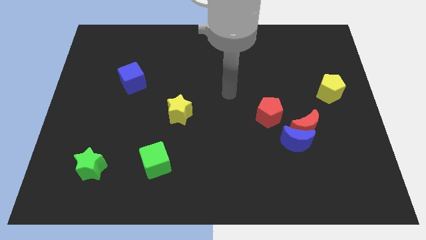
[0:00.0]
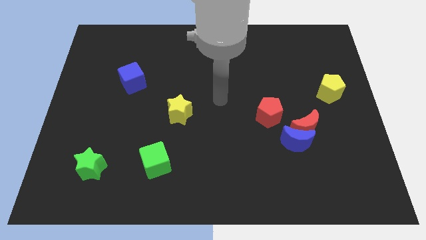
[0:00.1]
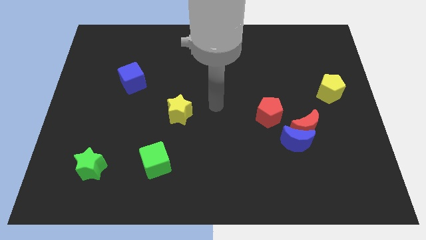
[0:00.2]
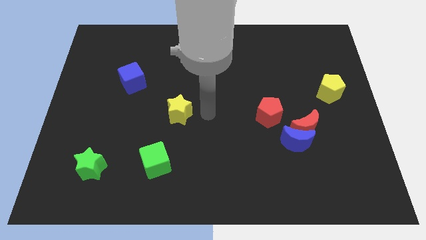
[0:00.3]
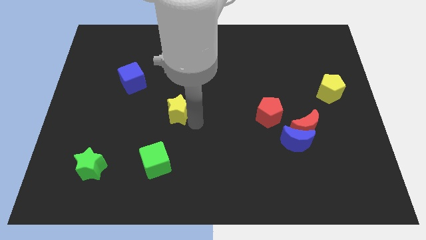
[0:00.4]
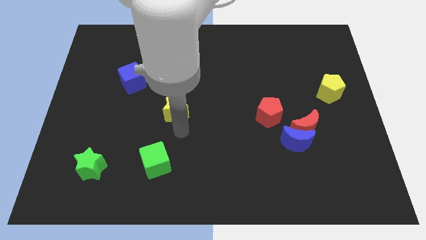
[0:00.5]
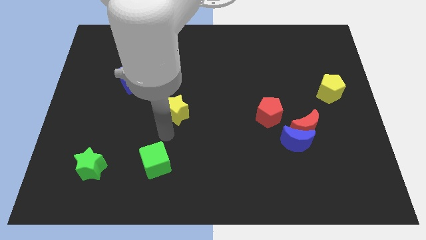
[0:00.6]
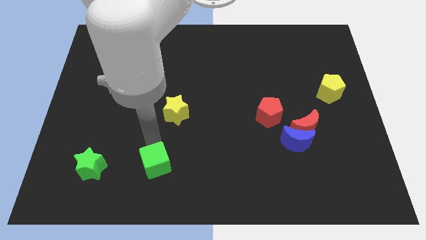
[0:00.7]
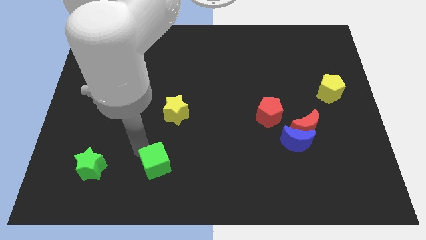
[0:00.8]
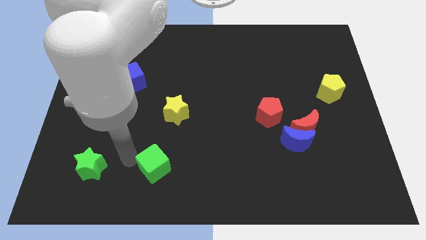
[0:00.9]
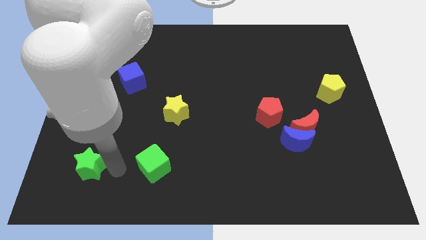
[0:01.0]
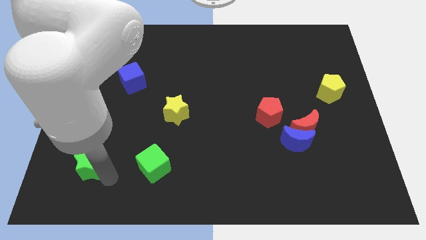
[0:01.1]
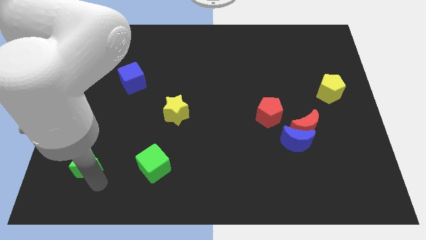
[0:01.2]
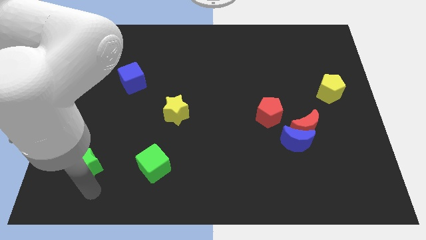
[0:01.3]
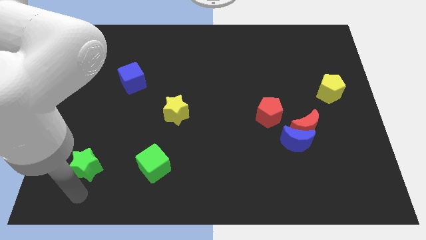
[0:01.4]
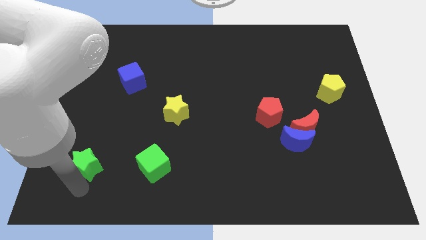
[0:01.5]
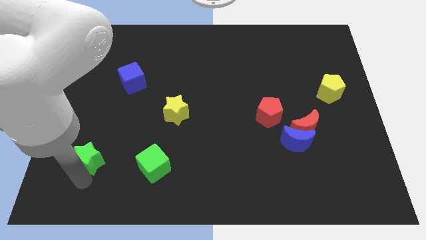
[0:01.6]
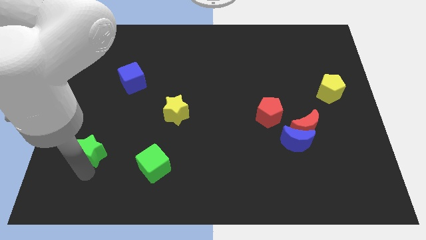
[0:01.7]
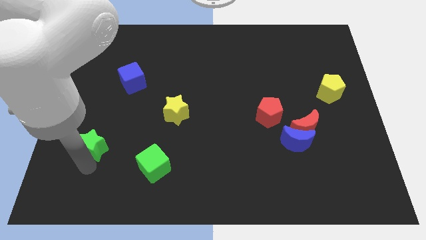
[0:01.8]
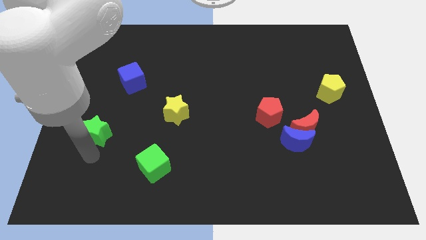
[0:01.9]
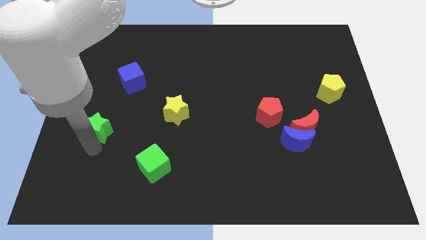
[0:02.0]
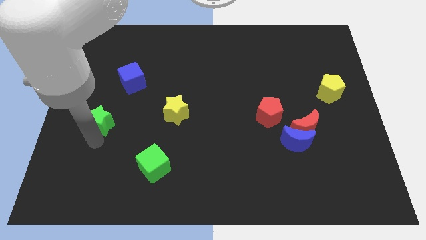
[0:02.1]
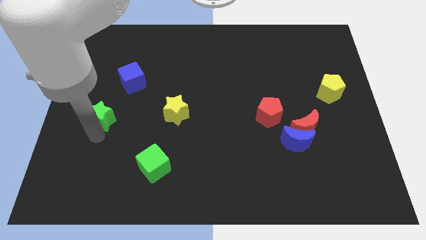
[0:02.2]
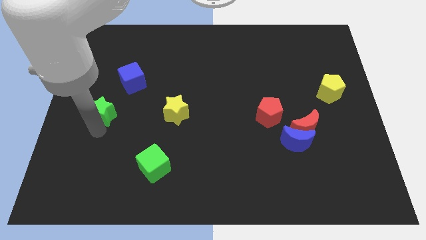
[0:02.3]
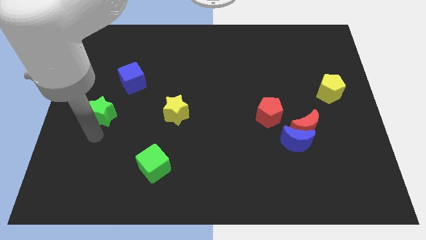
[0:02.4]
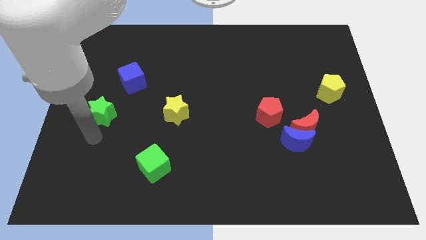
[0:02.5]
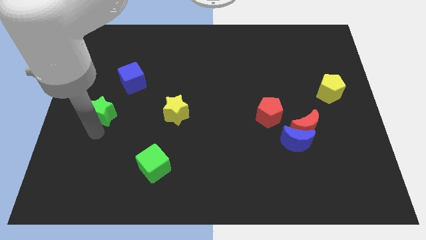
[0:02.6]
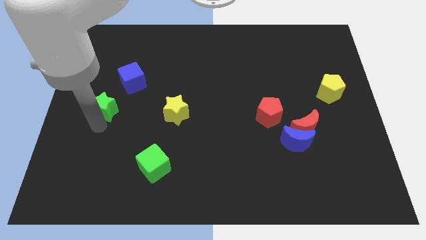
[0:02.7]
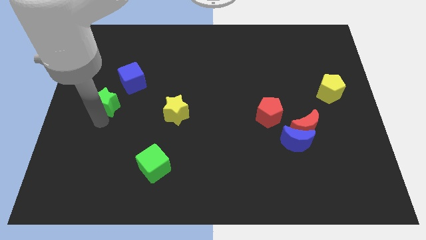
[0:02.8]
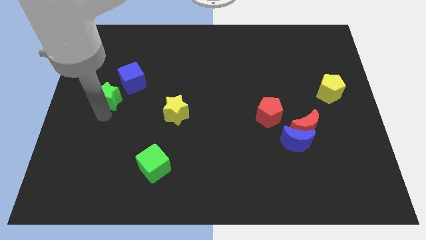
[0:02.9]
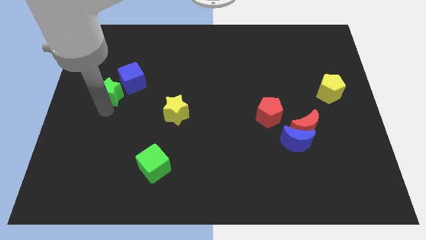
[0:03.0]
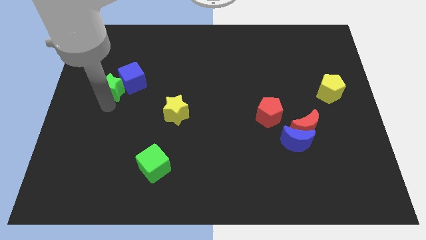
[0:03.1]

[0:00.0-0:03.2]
push the green star upwards

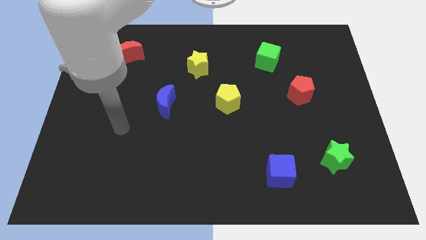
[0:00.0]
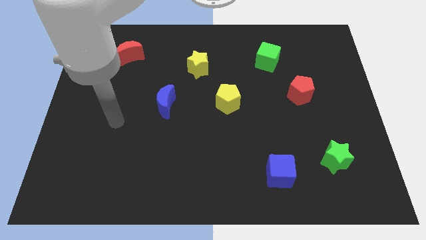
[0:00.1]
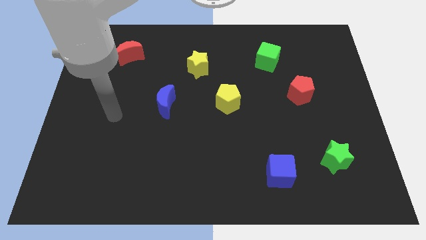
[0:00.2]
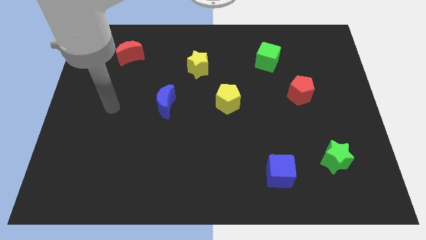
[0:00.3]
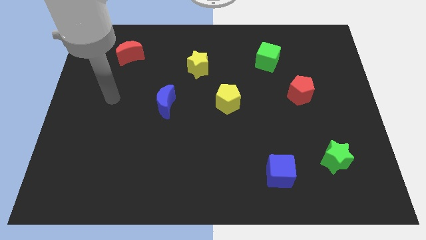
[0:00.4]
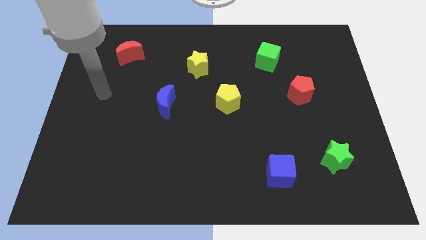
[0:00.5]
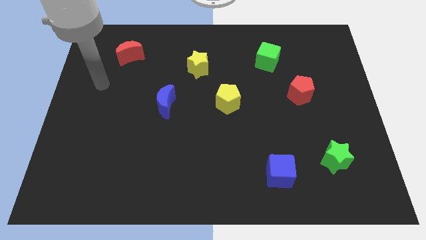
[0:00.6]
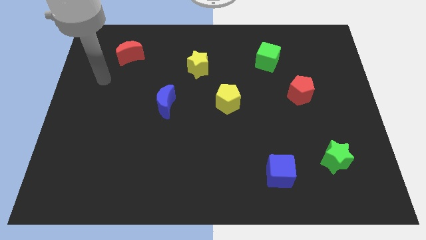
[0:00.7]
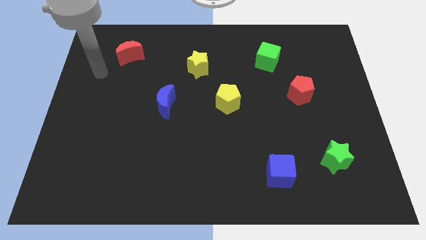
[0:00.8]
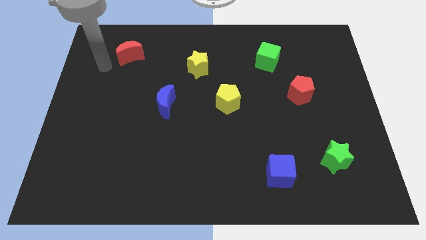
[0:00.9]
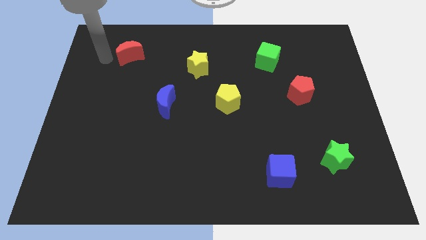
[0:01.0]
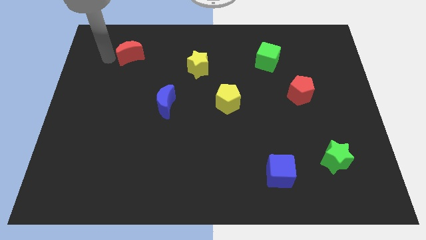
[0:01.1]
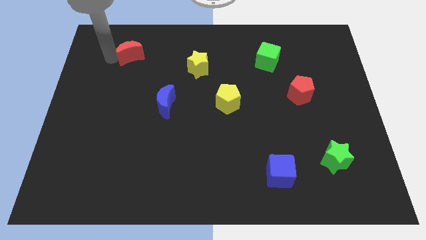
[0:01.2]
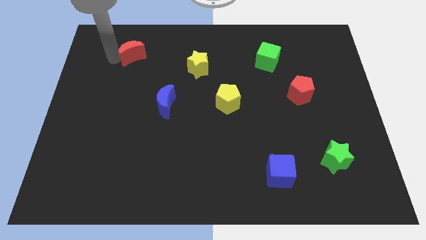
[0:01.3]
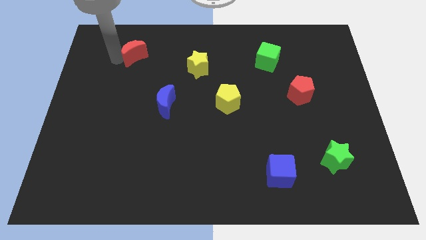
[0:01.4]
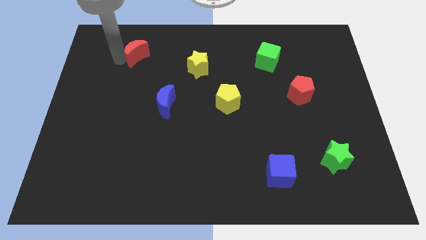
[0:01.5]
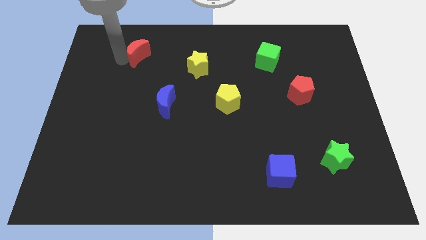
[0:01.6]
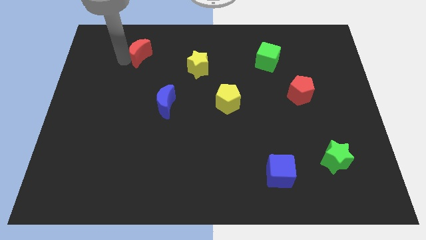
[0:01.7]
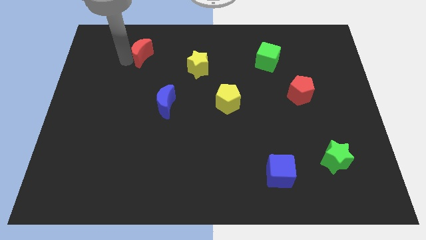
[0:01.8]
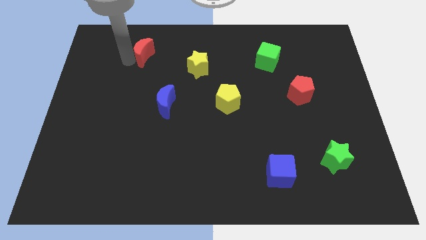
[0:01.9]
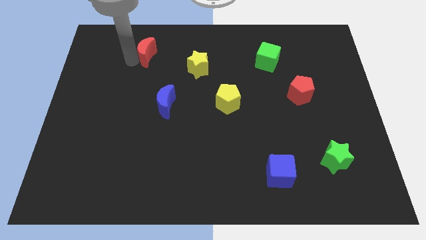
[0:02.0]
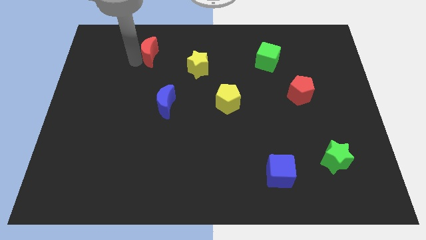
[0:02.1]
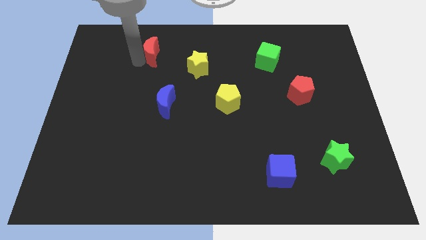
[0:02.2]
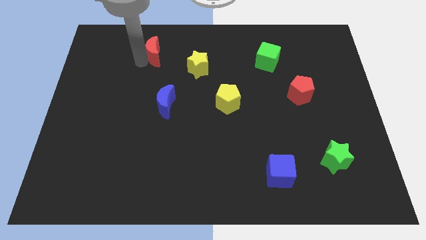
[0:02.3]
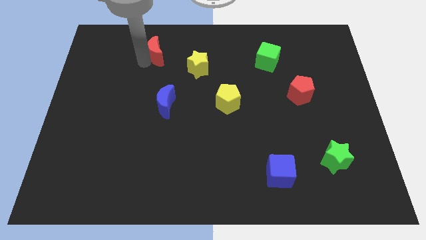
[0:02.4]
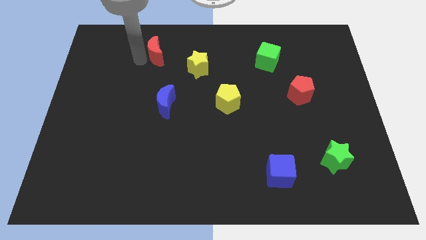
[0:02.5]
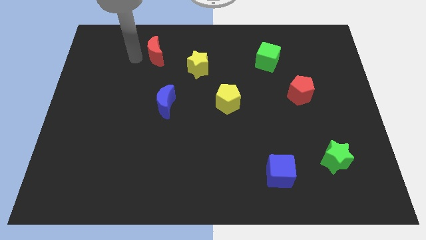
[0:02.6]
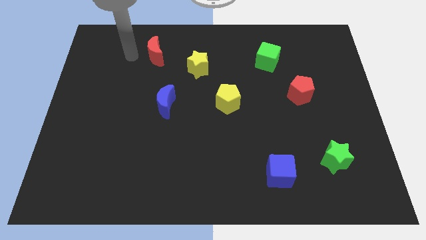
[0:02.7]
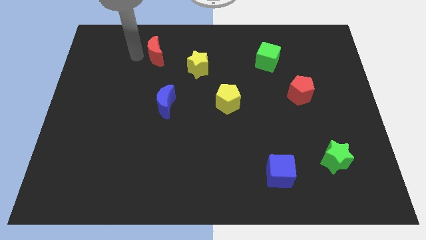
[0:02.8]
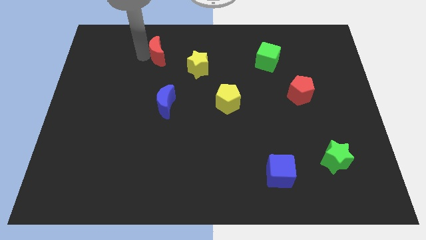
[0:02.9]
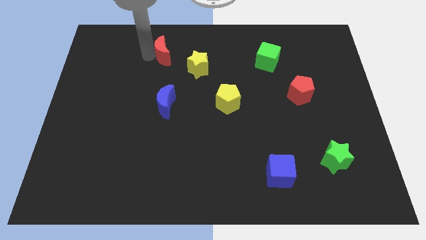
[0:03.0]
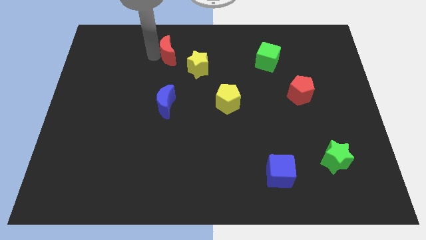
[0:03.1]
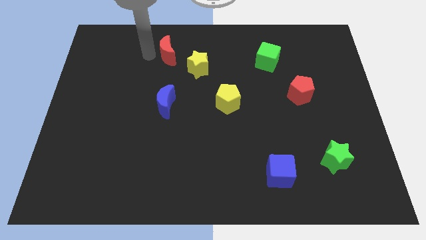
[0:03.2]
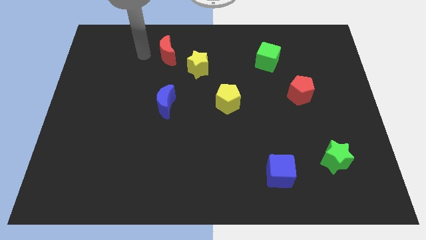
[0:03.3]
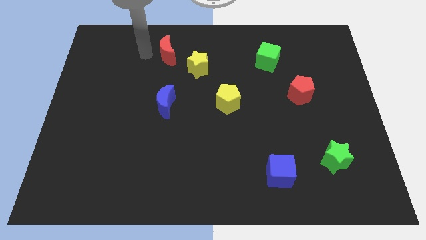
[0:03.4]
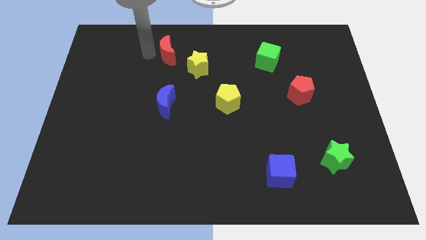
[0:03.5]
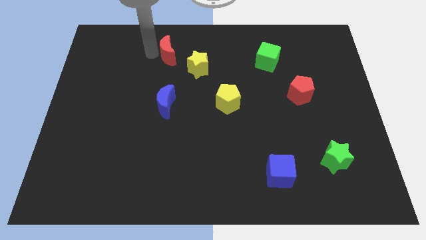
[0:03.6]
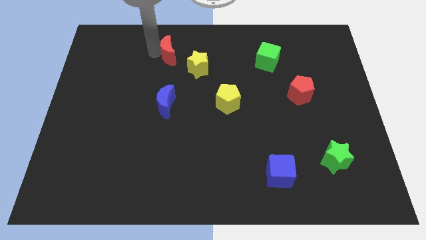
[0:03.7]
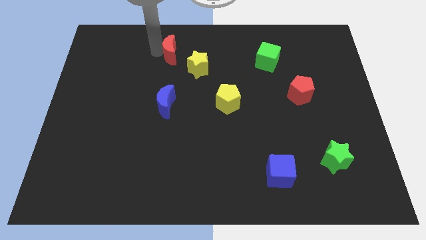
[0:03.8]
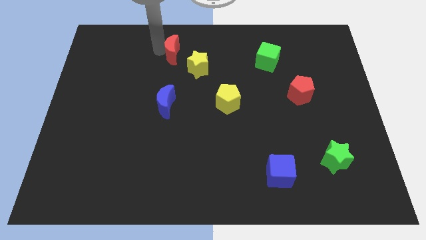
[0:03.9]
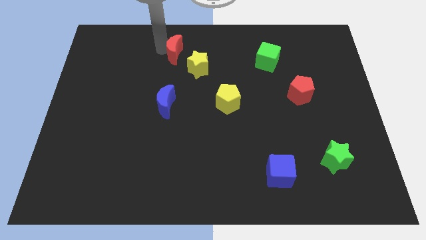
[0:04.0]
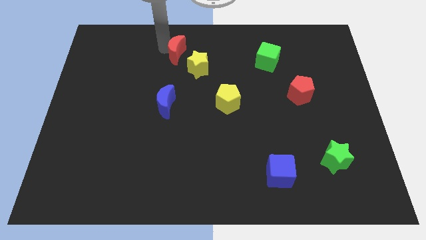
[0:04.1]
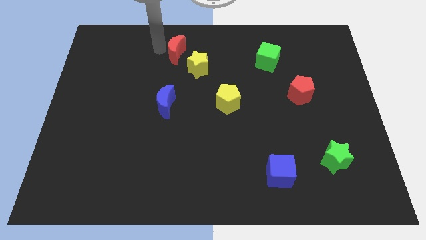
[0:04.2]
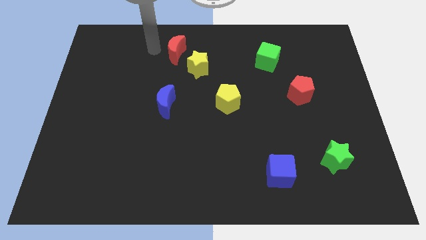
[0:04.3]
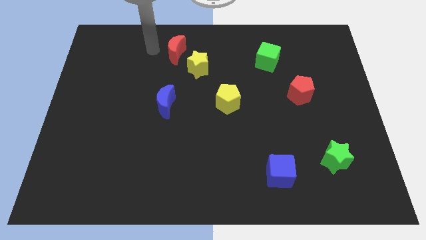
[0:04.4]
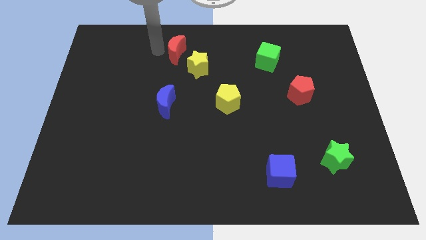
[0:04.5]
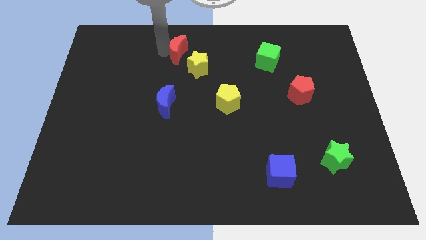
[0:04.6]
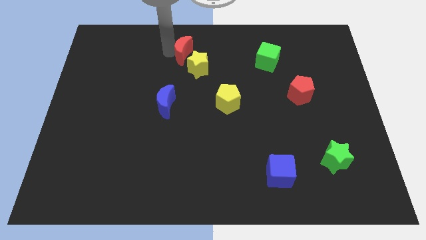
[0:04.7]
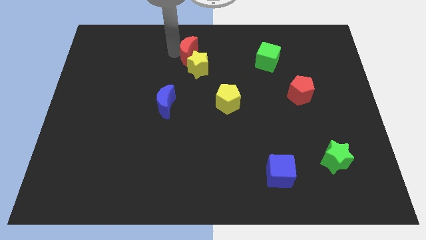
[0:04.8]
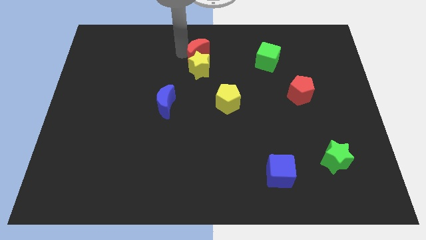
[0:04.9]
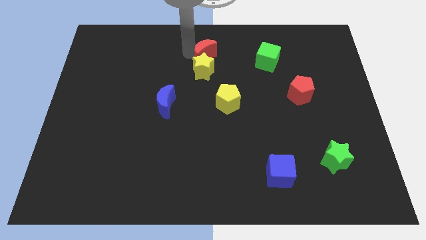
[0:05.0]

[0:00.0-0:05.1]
slide the red moon right
